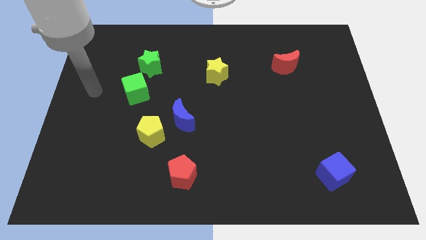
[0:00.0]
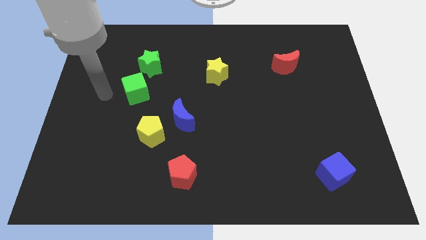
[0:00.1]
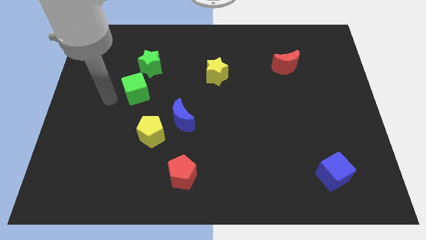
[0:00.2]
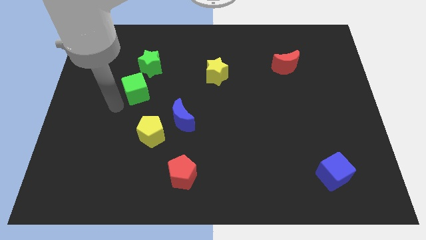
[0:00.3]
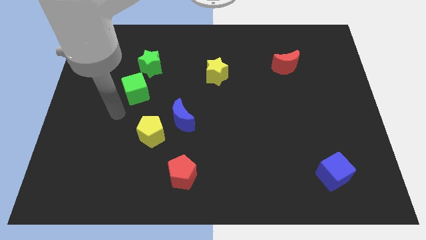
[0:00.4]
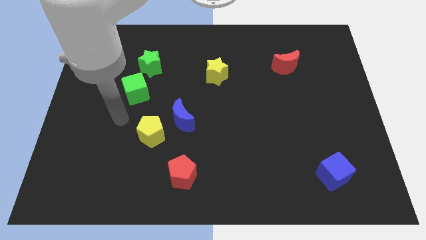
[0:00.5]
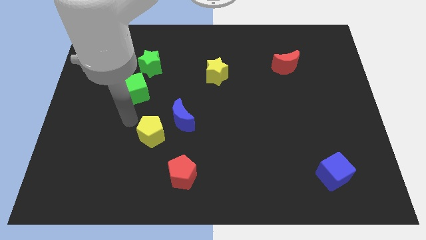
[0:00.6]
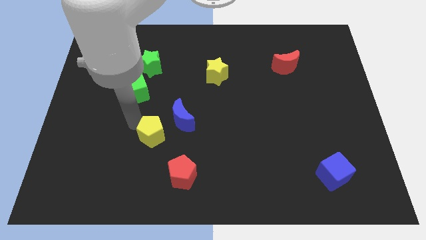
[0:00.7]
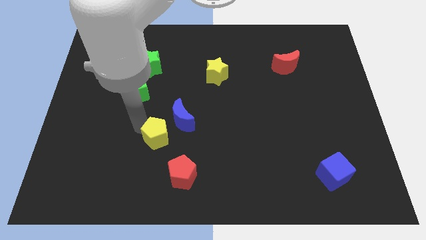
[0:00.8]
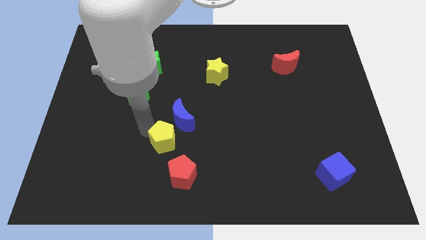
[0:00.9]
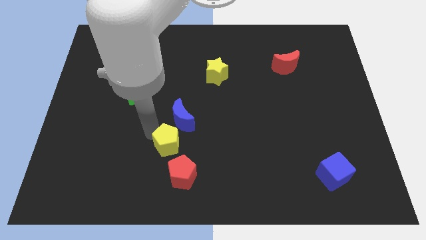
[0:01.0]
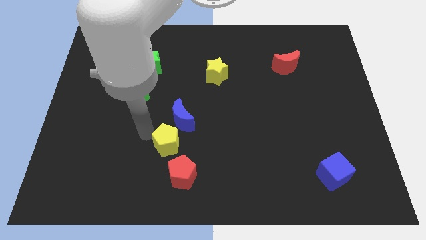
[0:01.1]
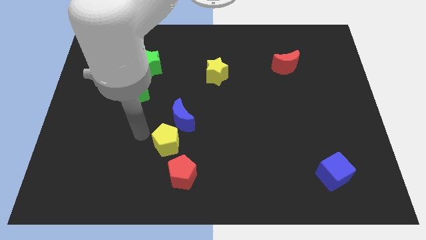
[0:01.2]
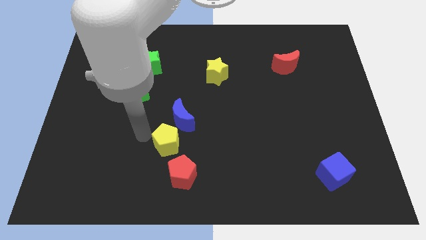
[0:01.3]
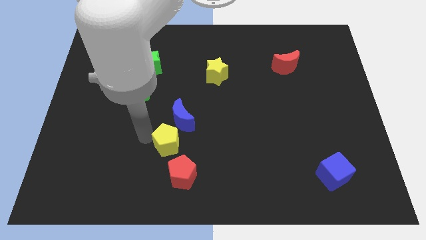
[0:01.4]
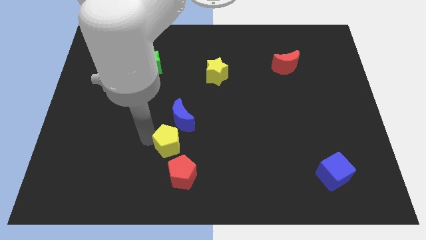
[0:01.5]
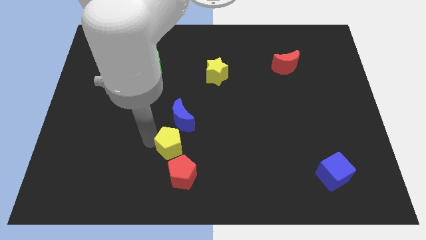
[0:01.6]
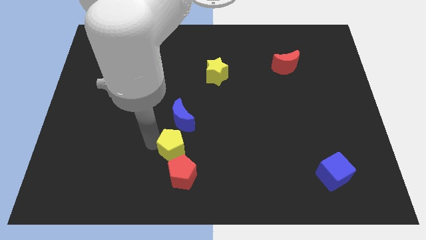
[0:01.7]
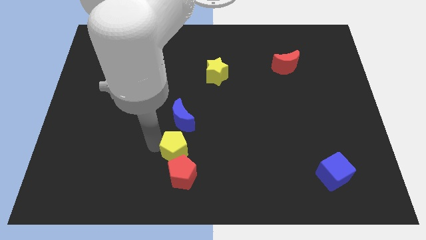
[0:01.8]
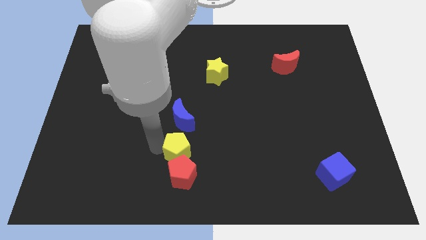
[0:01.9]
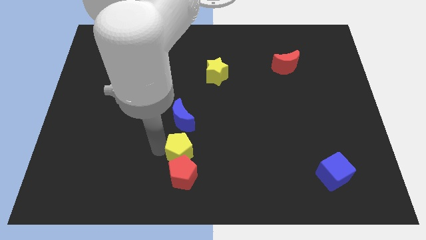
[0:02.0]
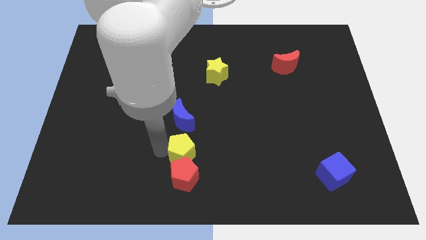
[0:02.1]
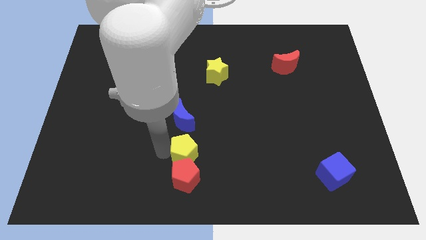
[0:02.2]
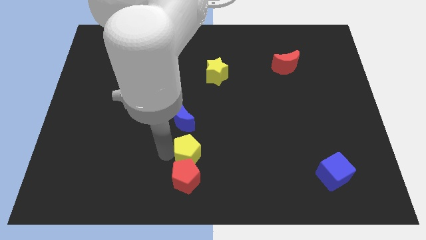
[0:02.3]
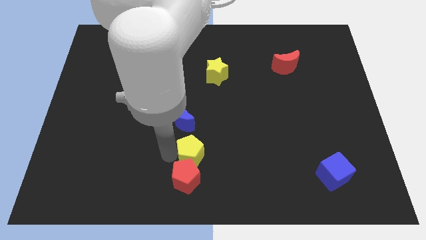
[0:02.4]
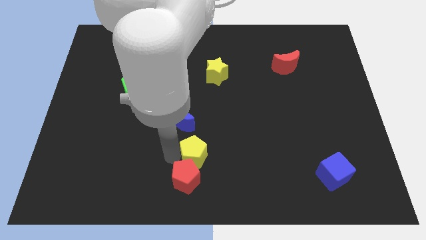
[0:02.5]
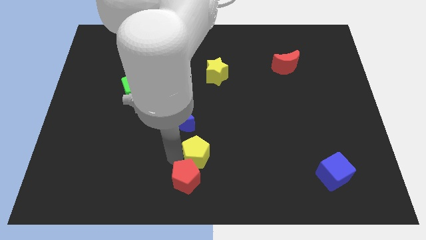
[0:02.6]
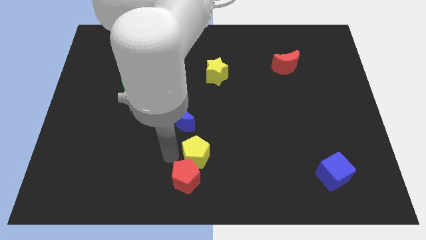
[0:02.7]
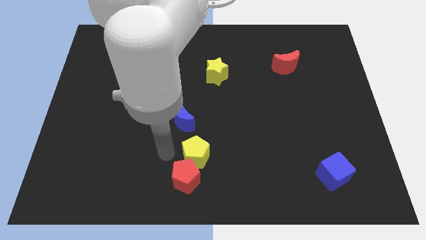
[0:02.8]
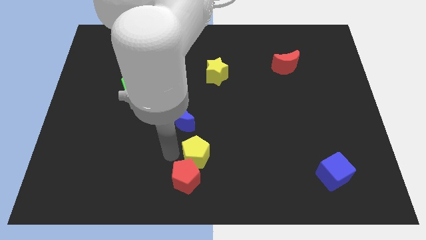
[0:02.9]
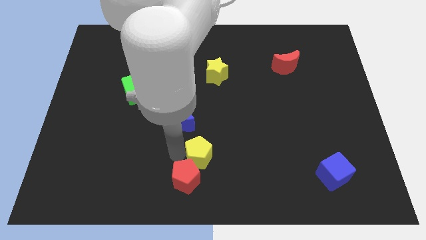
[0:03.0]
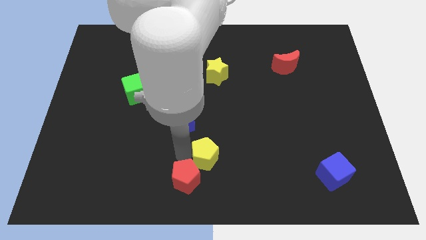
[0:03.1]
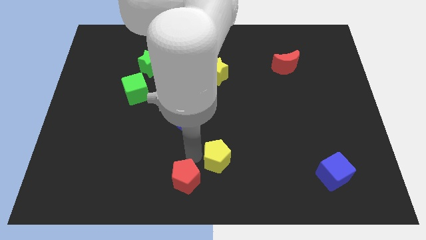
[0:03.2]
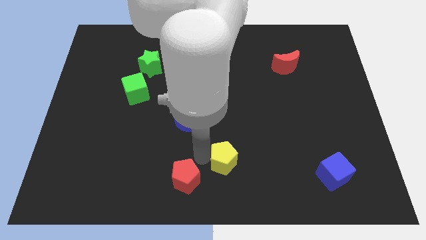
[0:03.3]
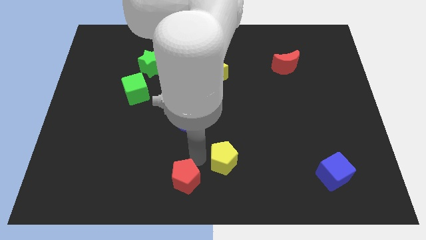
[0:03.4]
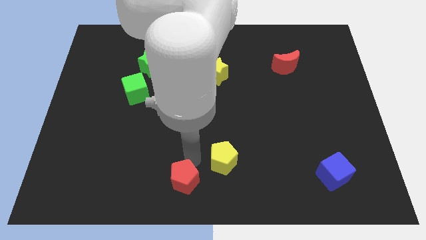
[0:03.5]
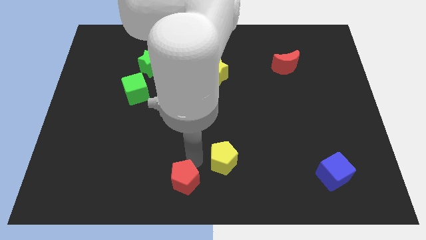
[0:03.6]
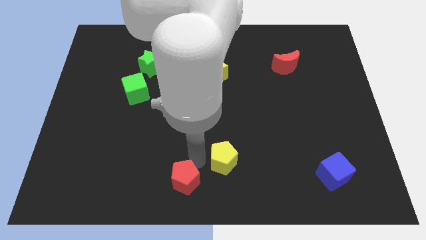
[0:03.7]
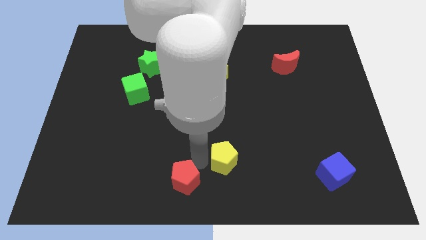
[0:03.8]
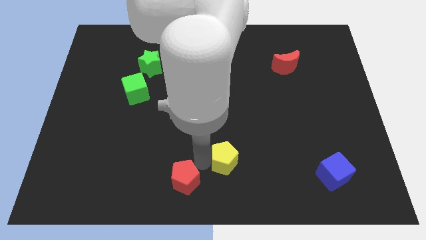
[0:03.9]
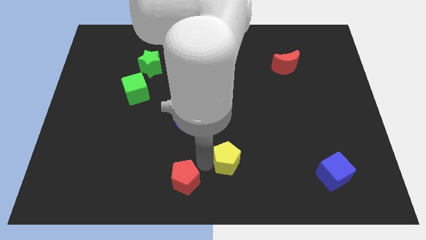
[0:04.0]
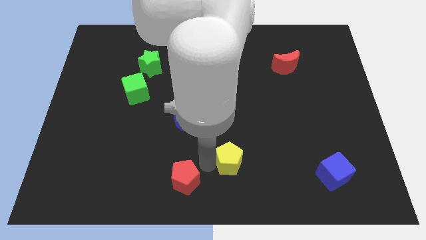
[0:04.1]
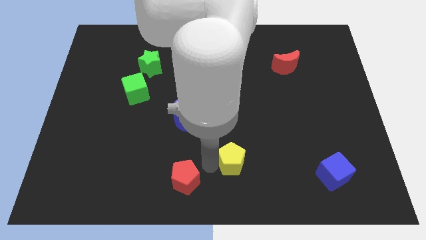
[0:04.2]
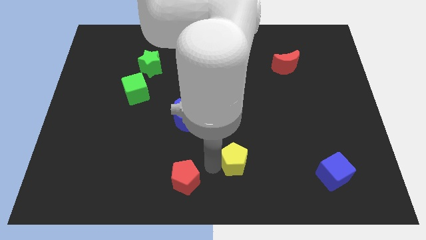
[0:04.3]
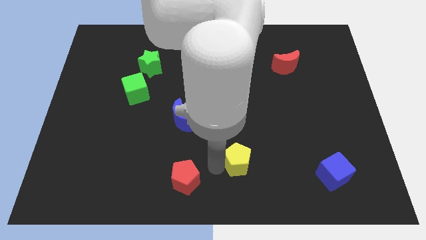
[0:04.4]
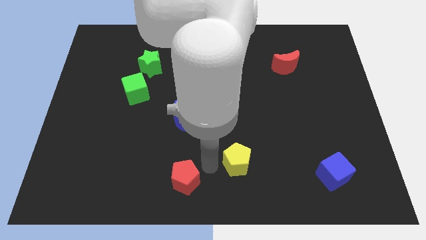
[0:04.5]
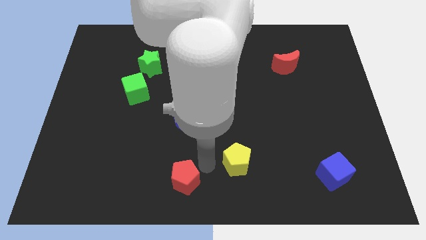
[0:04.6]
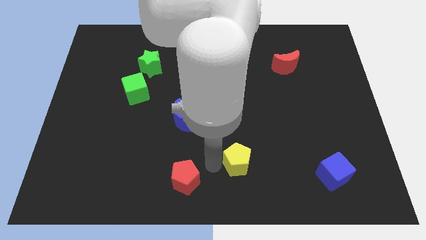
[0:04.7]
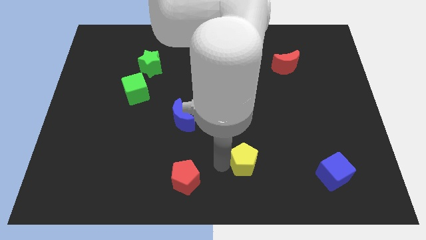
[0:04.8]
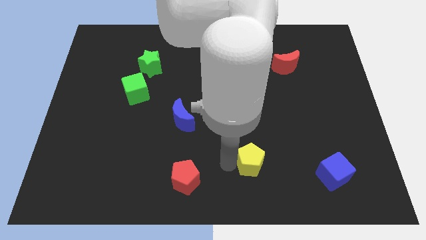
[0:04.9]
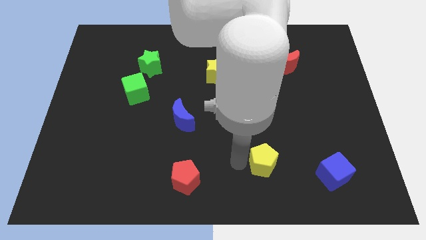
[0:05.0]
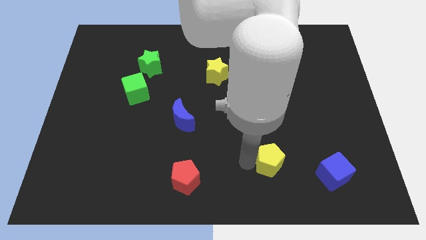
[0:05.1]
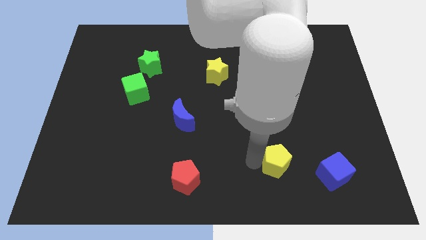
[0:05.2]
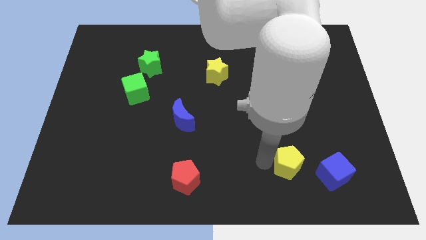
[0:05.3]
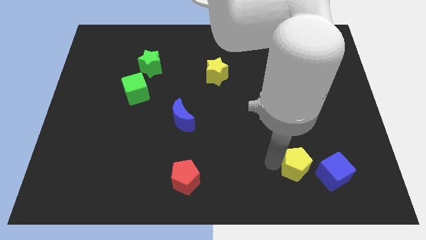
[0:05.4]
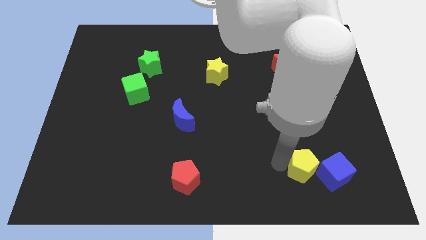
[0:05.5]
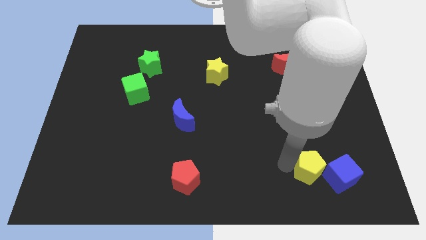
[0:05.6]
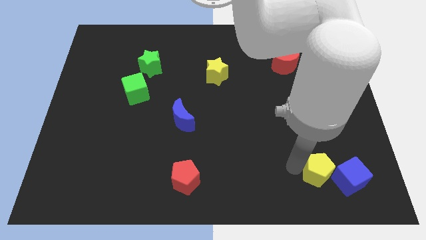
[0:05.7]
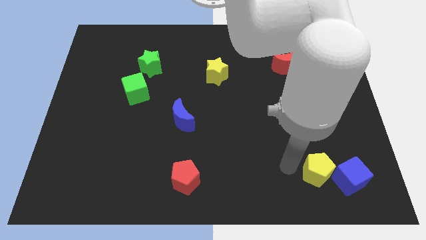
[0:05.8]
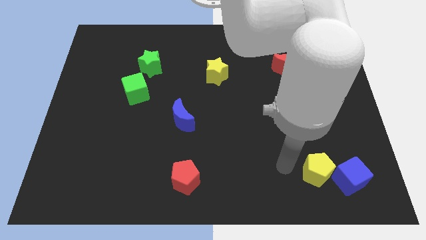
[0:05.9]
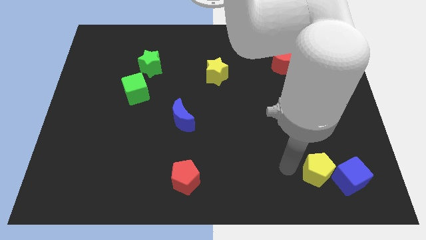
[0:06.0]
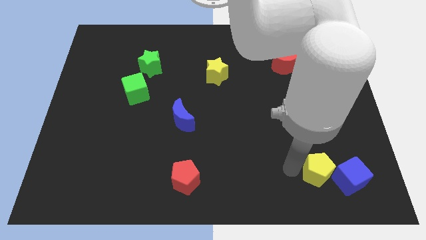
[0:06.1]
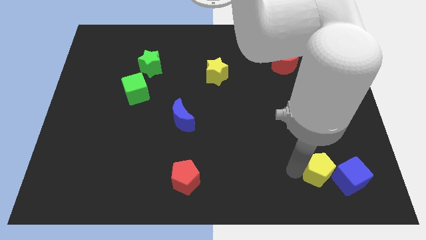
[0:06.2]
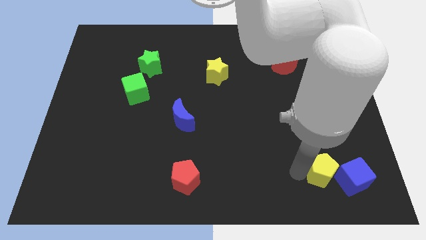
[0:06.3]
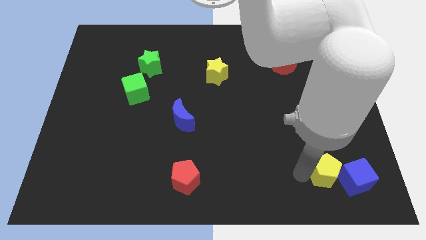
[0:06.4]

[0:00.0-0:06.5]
move the yellow pentagon towards the blue cube

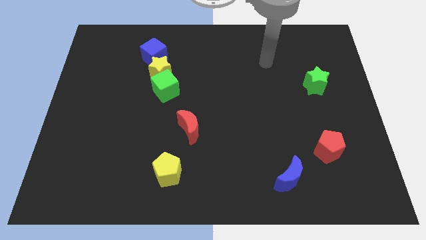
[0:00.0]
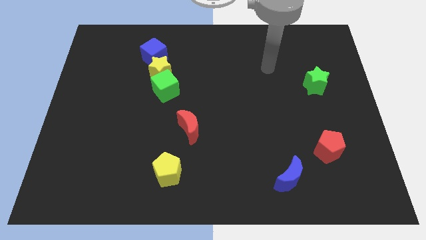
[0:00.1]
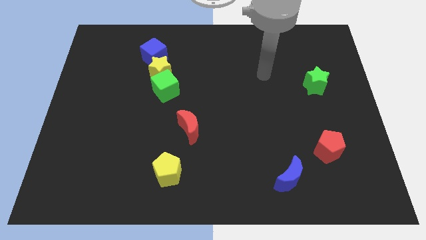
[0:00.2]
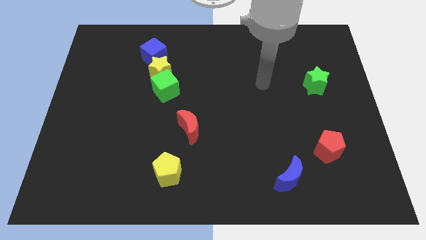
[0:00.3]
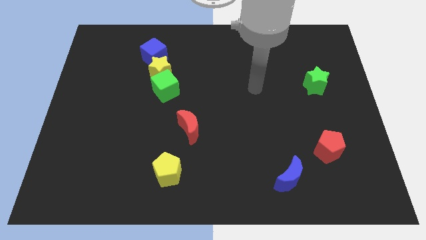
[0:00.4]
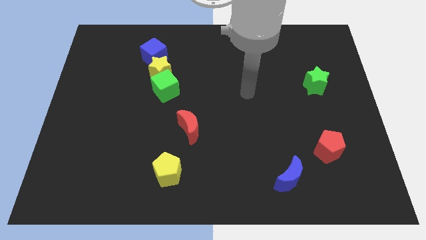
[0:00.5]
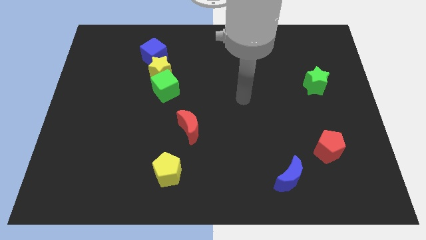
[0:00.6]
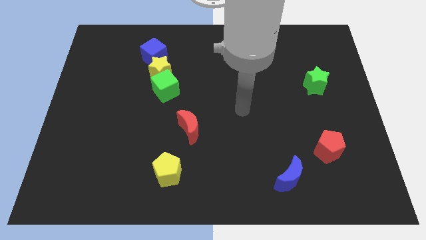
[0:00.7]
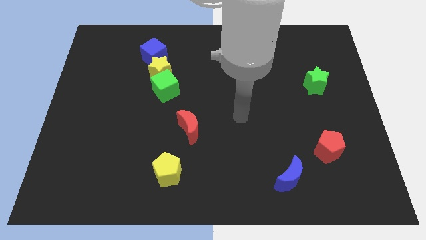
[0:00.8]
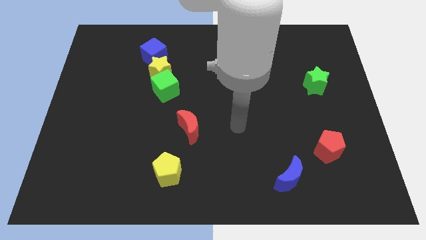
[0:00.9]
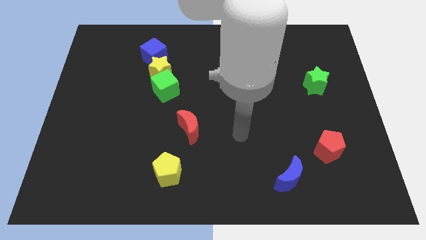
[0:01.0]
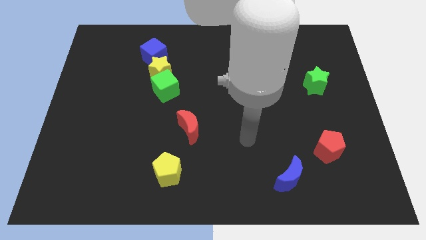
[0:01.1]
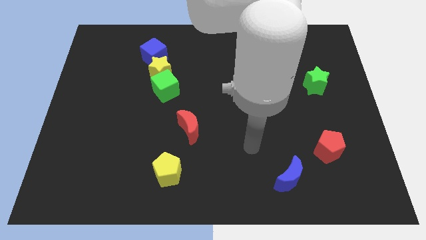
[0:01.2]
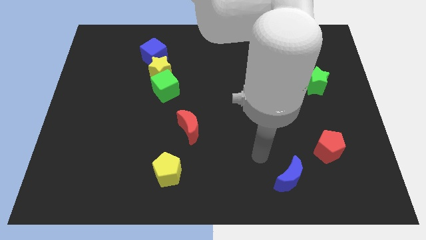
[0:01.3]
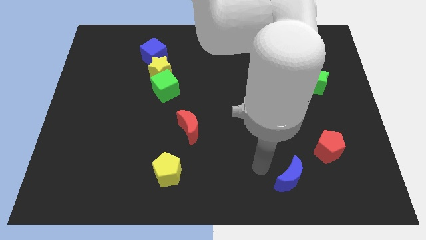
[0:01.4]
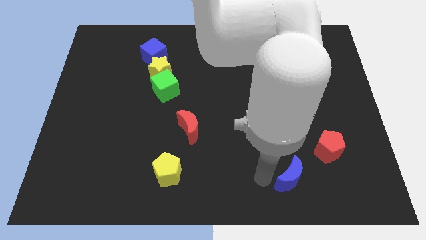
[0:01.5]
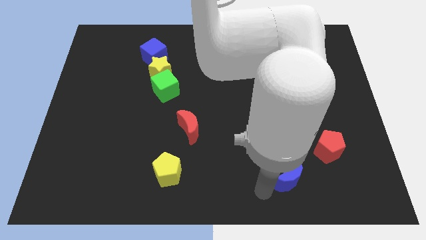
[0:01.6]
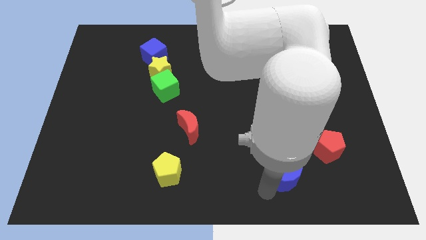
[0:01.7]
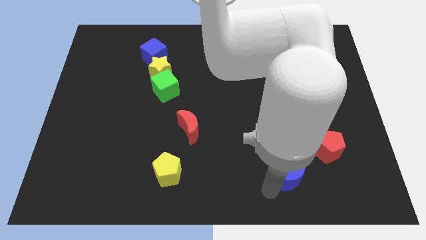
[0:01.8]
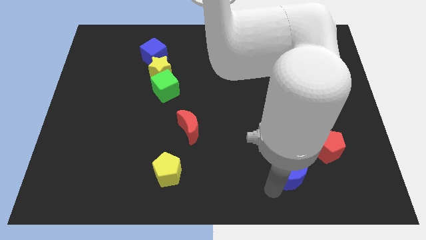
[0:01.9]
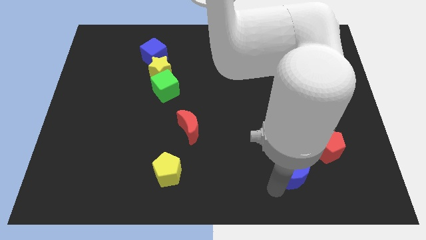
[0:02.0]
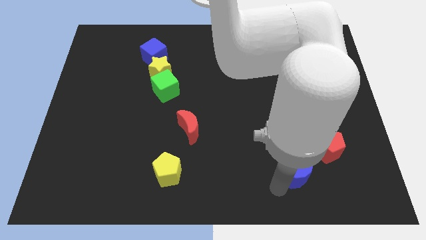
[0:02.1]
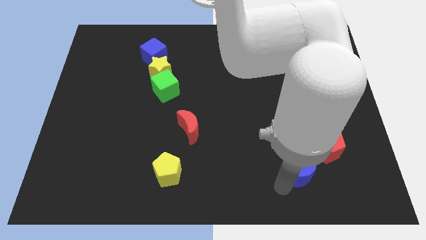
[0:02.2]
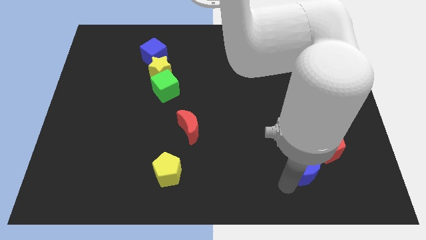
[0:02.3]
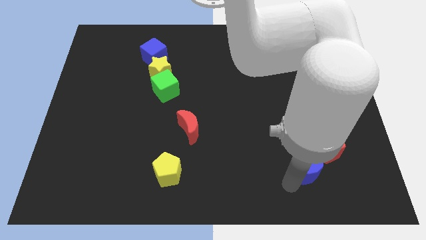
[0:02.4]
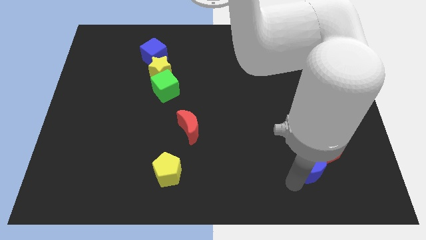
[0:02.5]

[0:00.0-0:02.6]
slide the blue moon next to the red pentagon
